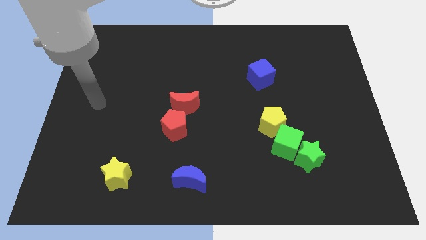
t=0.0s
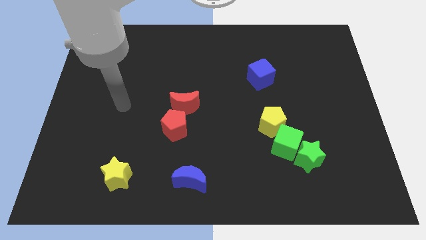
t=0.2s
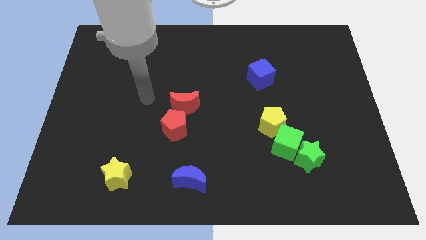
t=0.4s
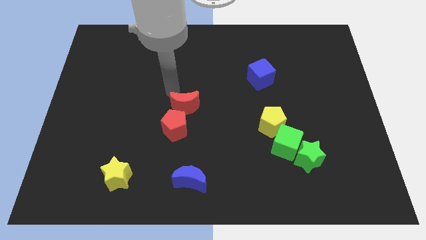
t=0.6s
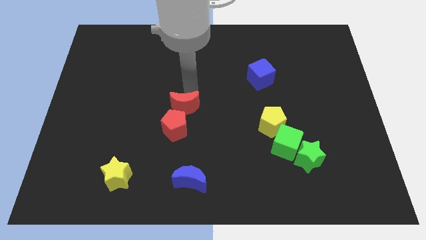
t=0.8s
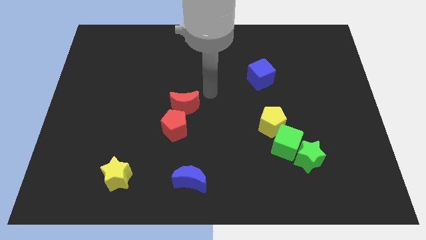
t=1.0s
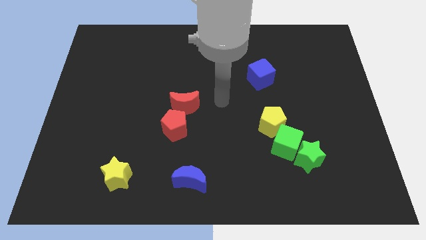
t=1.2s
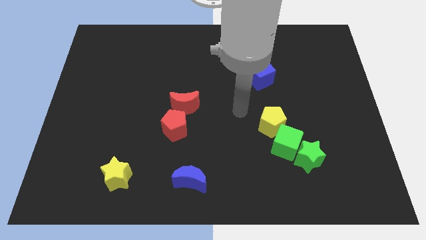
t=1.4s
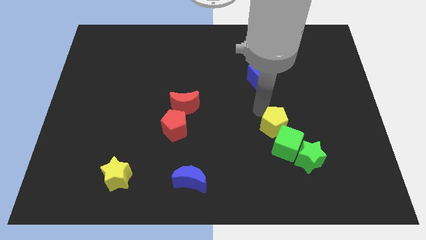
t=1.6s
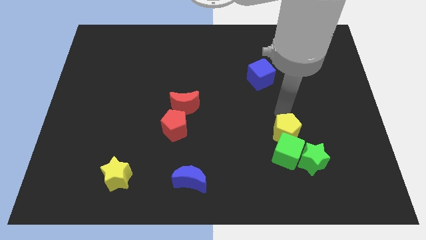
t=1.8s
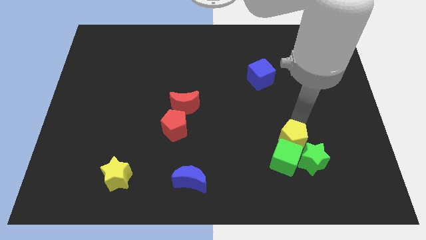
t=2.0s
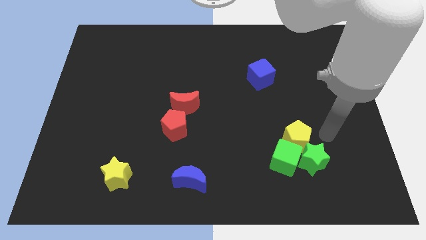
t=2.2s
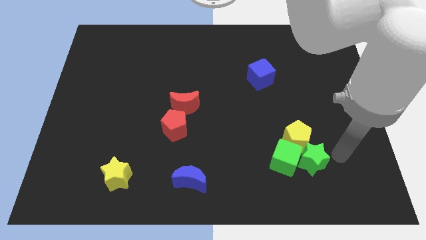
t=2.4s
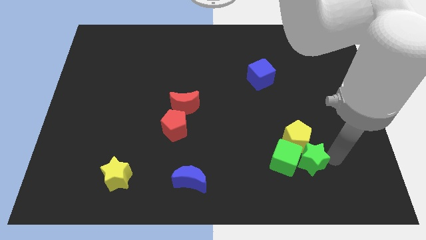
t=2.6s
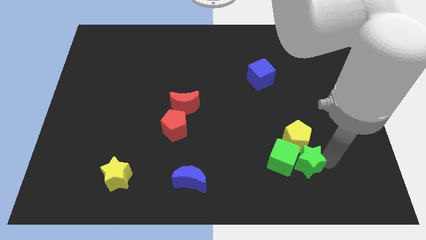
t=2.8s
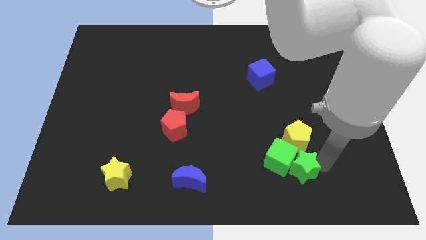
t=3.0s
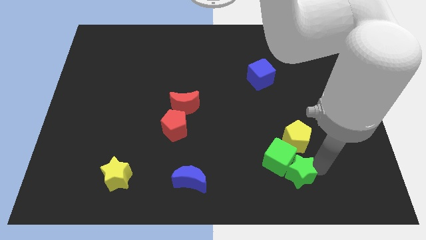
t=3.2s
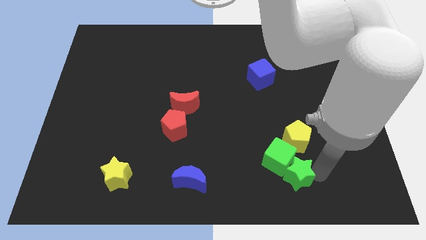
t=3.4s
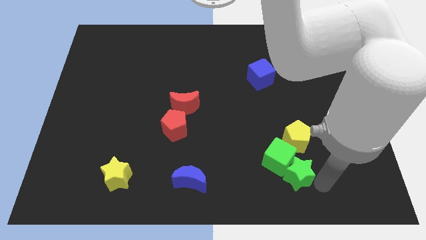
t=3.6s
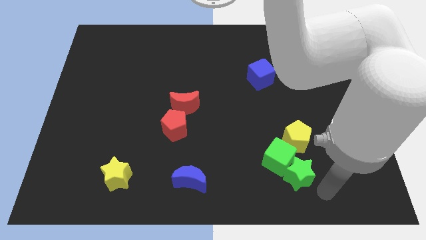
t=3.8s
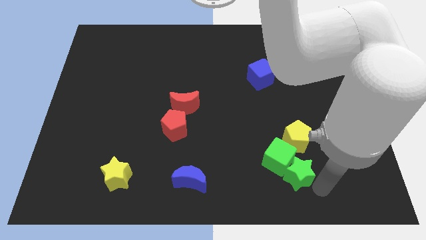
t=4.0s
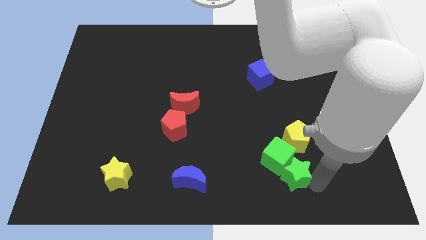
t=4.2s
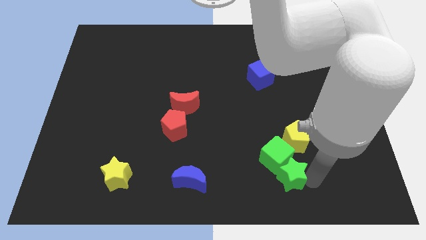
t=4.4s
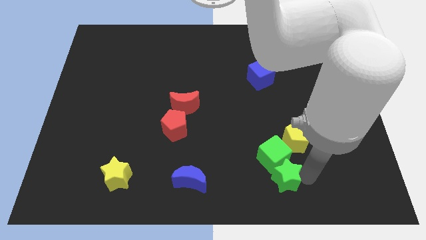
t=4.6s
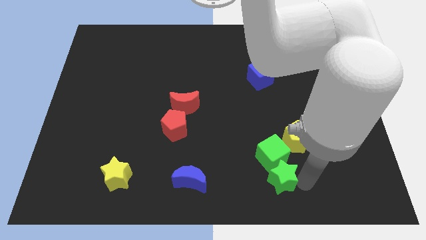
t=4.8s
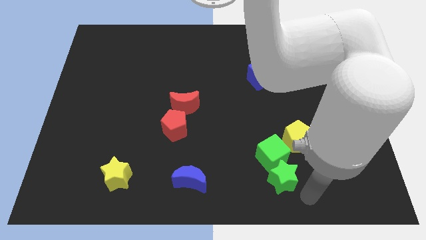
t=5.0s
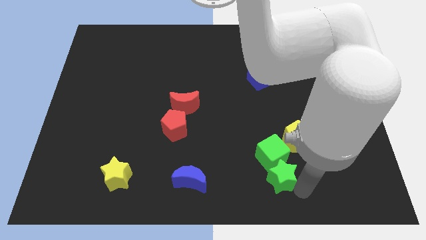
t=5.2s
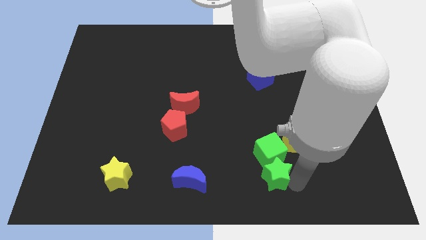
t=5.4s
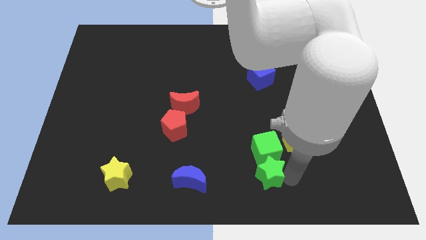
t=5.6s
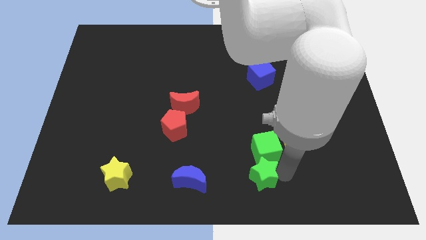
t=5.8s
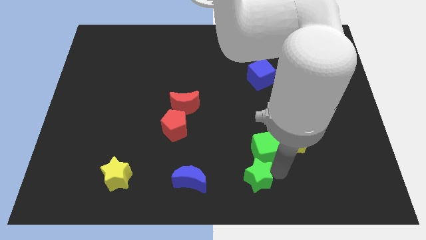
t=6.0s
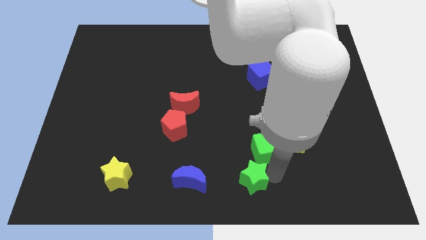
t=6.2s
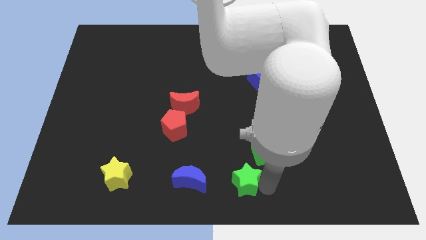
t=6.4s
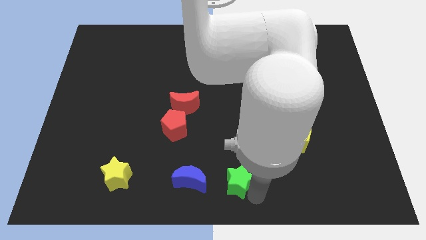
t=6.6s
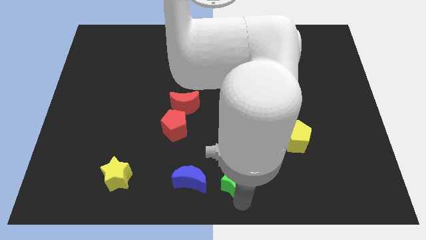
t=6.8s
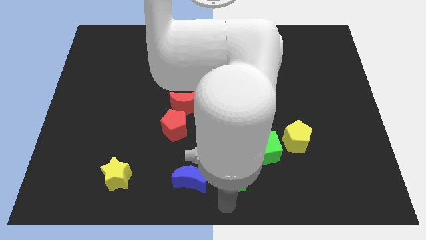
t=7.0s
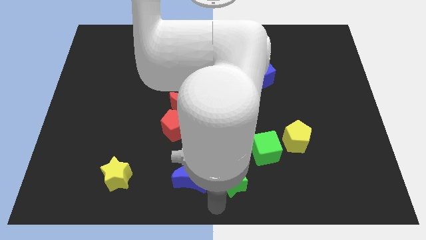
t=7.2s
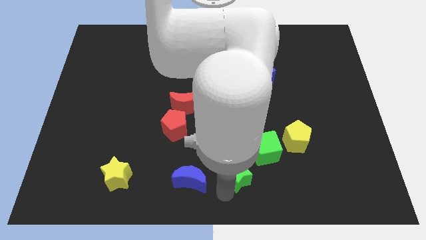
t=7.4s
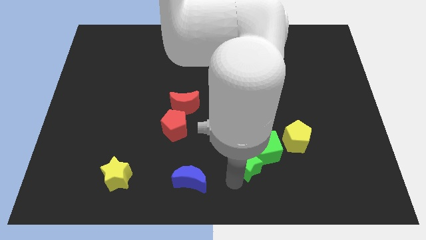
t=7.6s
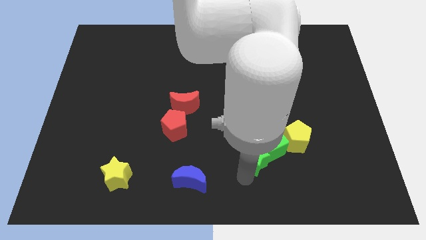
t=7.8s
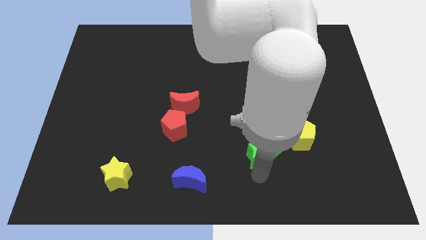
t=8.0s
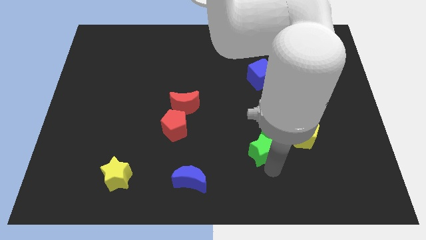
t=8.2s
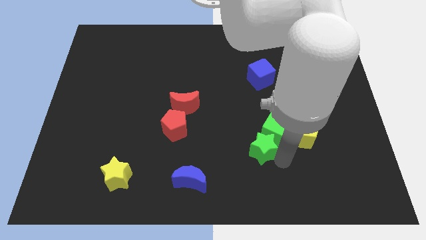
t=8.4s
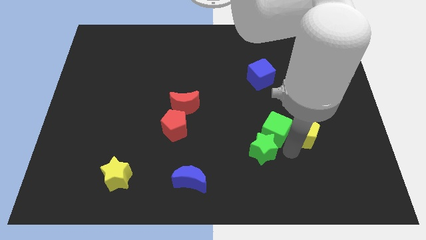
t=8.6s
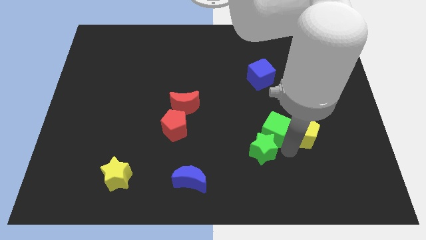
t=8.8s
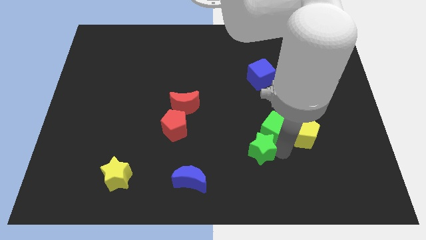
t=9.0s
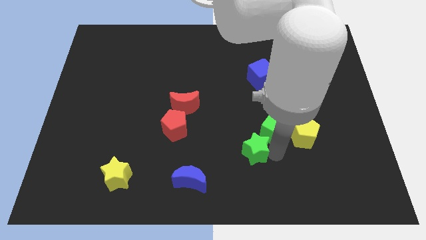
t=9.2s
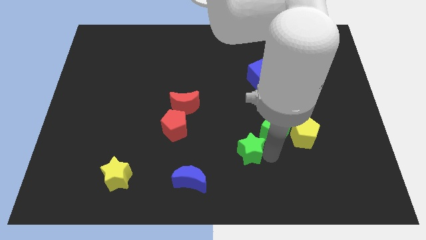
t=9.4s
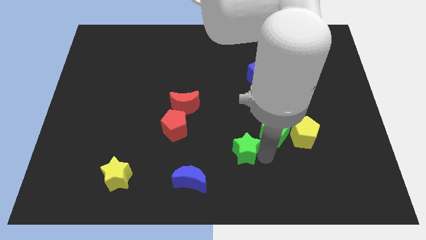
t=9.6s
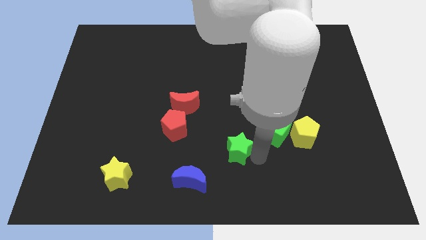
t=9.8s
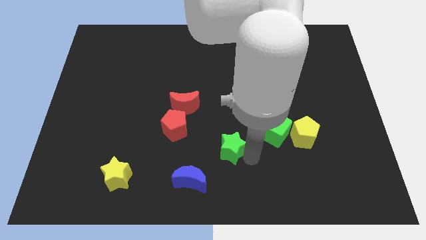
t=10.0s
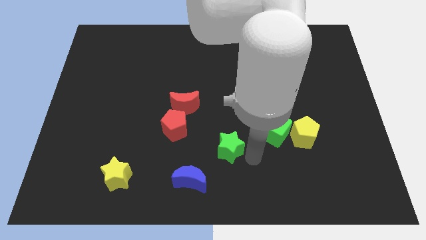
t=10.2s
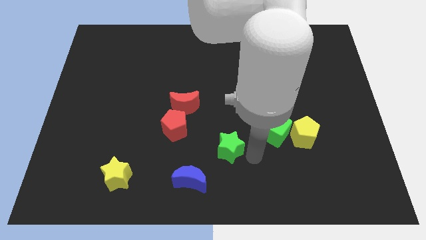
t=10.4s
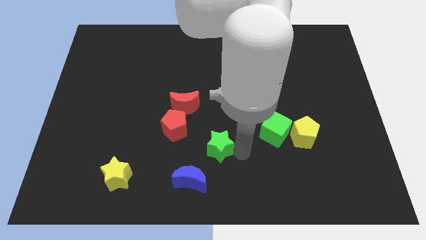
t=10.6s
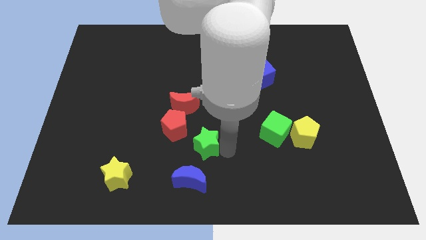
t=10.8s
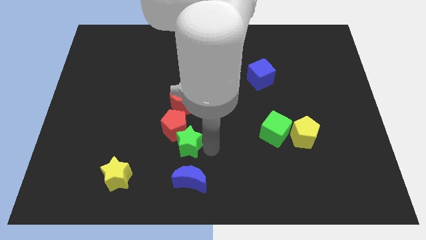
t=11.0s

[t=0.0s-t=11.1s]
move the green star close to the red pentagon

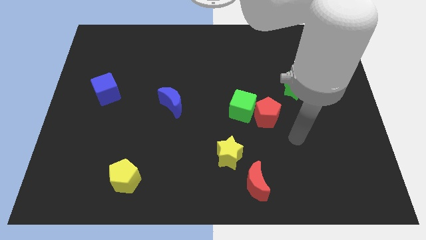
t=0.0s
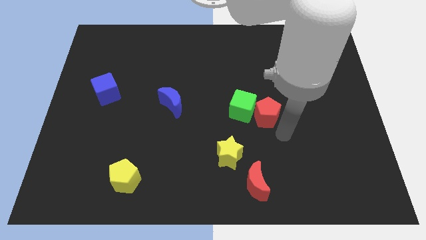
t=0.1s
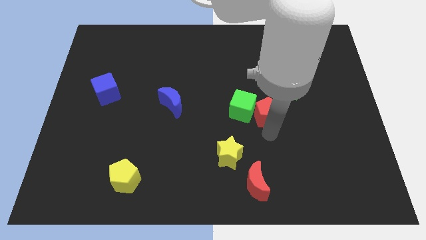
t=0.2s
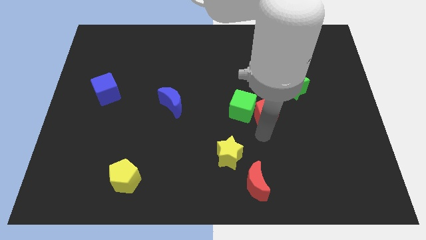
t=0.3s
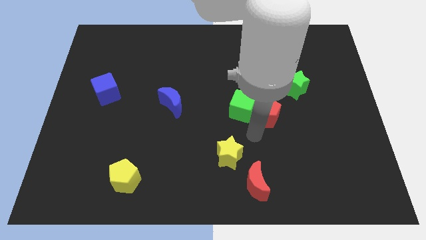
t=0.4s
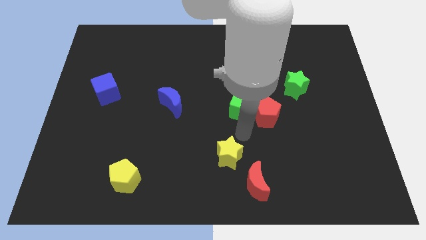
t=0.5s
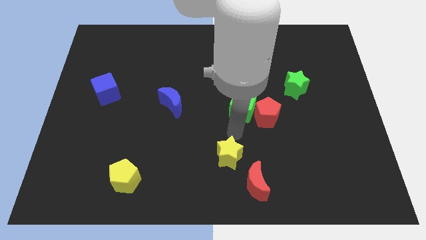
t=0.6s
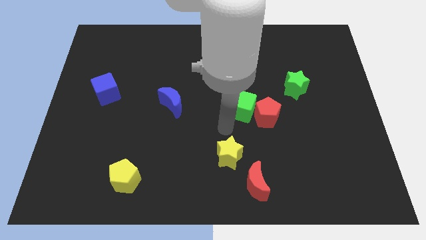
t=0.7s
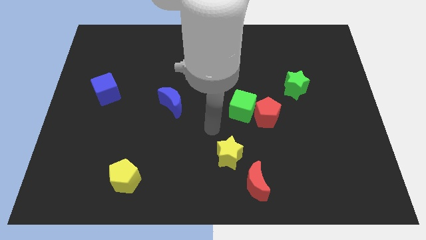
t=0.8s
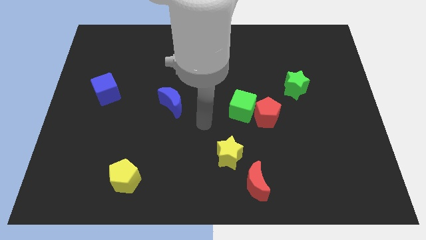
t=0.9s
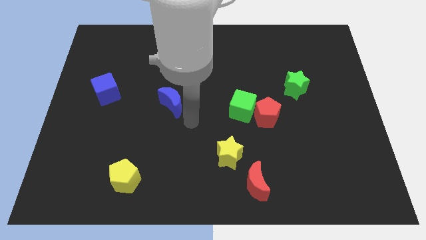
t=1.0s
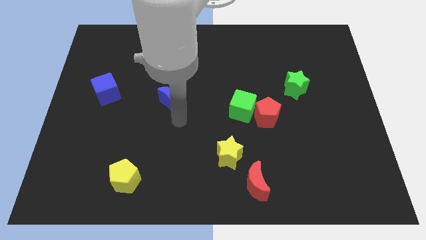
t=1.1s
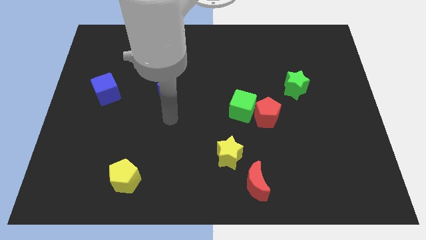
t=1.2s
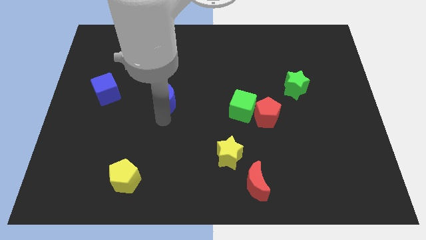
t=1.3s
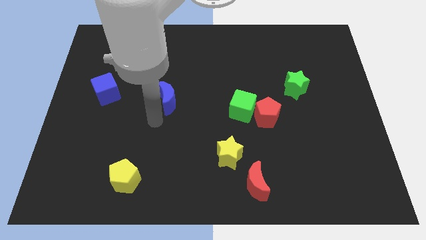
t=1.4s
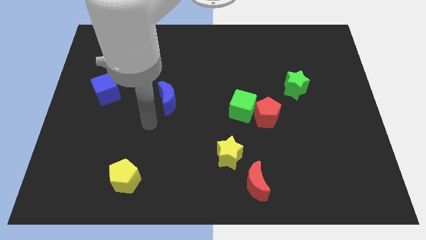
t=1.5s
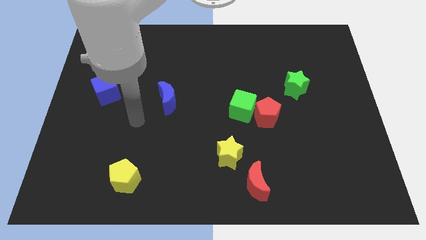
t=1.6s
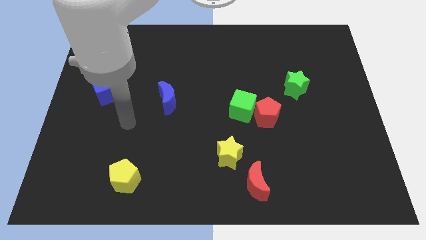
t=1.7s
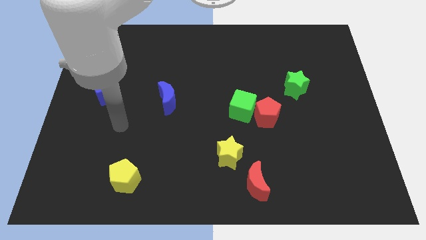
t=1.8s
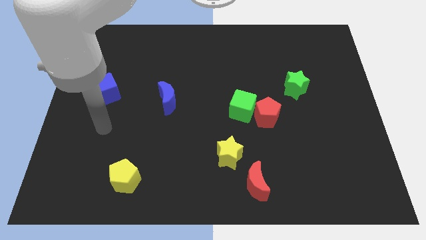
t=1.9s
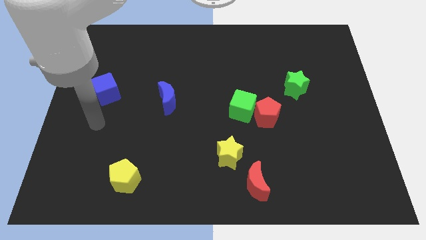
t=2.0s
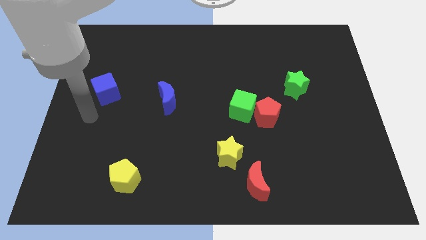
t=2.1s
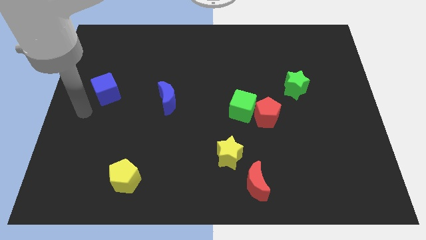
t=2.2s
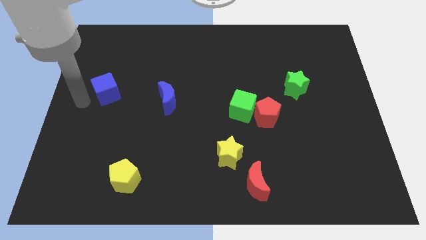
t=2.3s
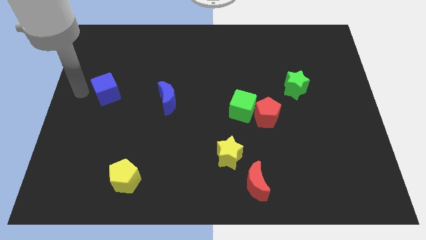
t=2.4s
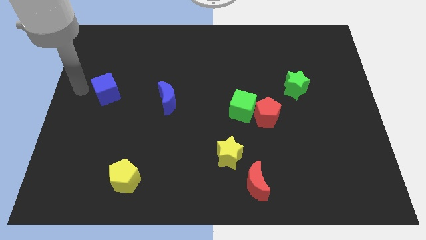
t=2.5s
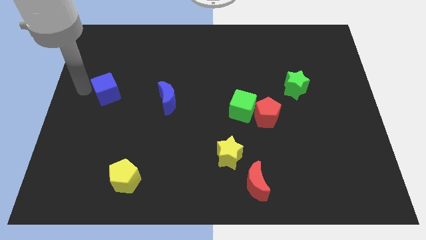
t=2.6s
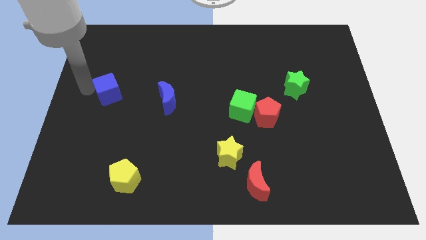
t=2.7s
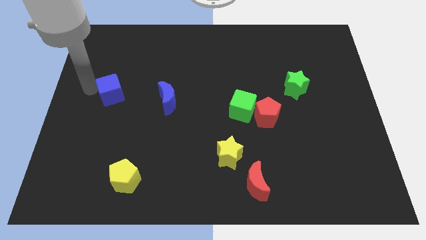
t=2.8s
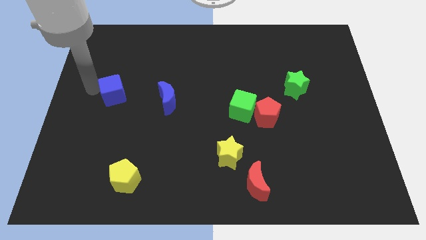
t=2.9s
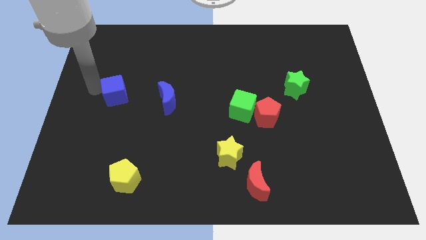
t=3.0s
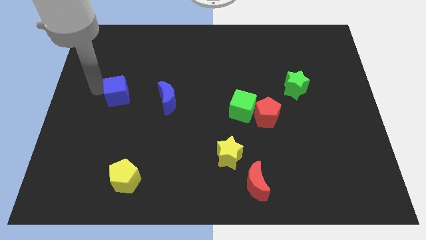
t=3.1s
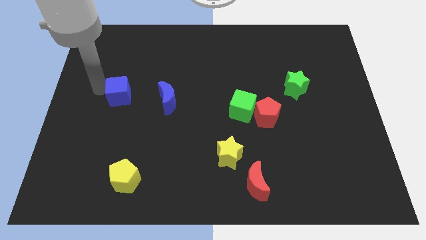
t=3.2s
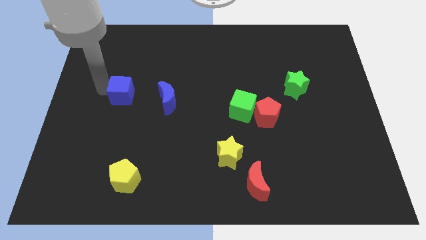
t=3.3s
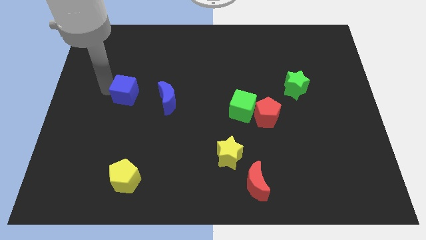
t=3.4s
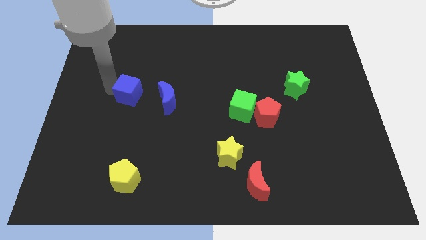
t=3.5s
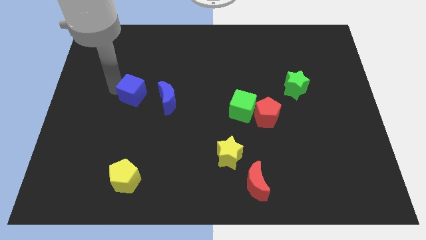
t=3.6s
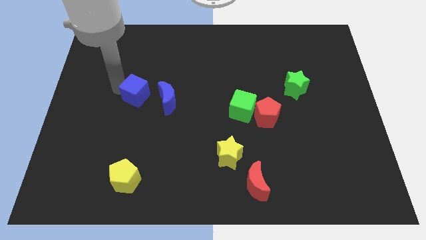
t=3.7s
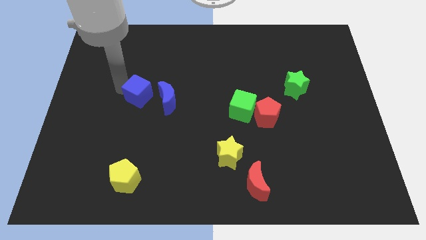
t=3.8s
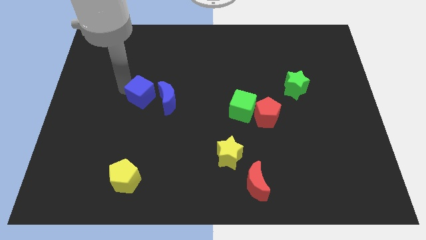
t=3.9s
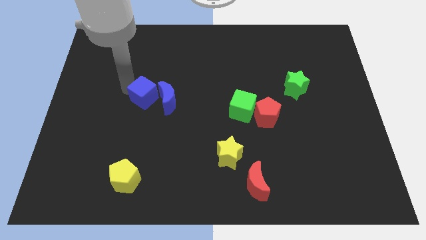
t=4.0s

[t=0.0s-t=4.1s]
slide the blue cube to the blue moon
